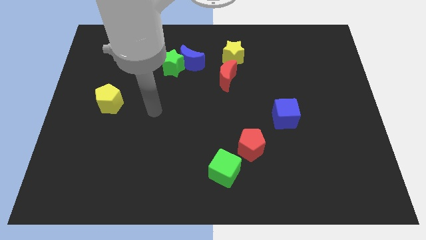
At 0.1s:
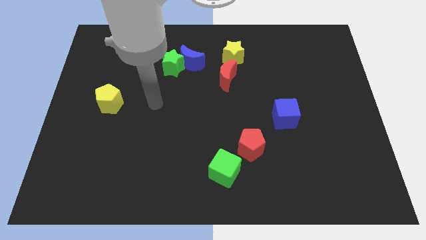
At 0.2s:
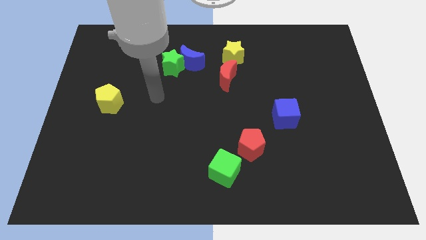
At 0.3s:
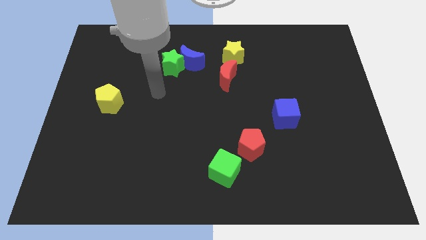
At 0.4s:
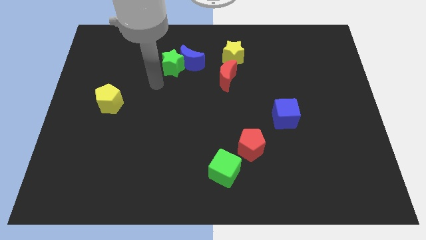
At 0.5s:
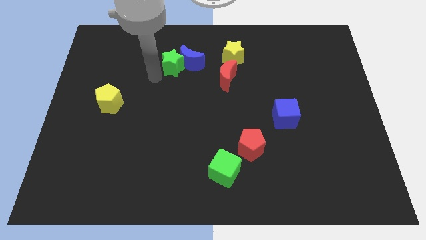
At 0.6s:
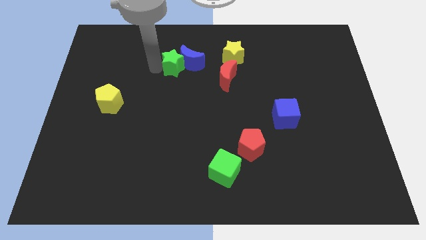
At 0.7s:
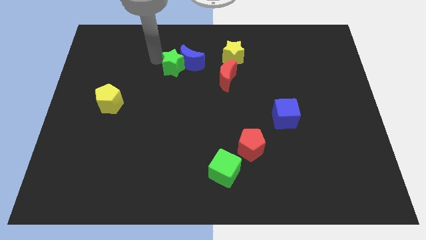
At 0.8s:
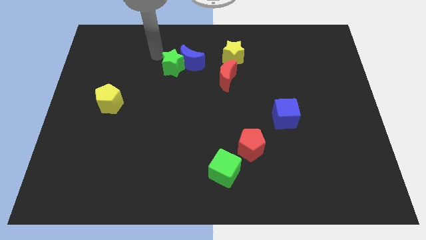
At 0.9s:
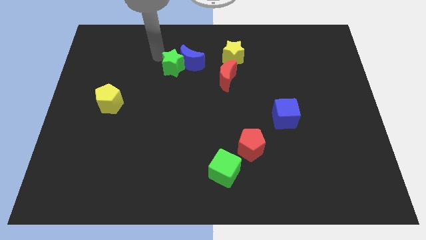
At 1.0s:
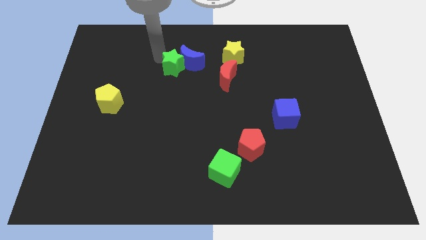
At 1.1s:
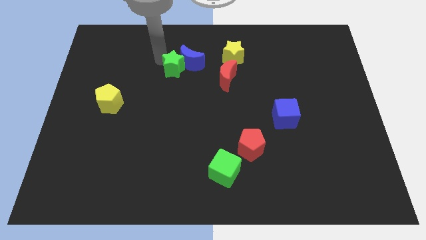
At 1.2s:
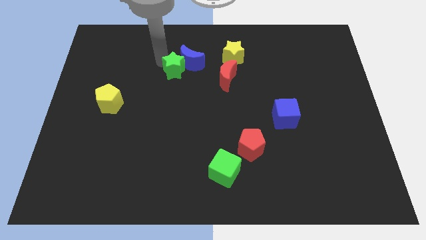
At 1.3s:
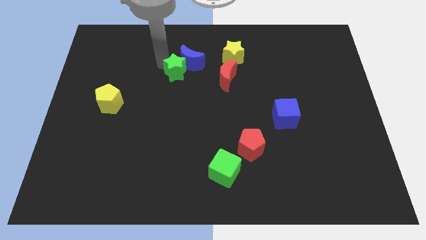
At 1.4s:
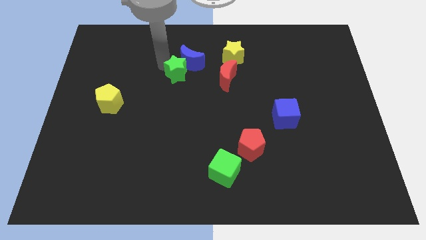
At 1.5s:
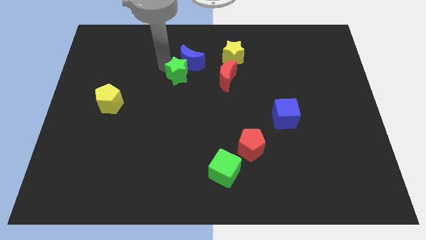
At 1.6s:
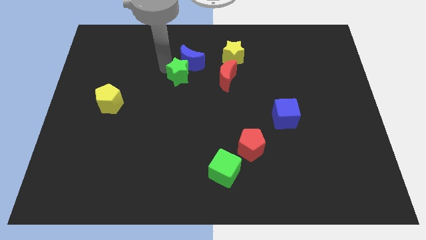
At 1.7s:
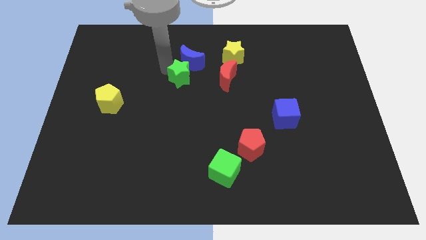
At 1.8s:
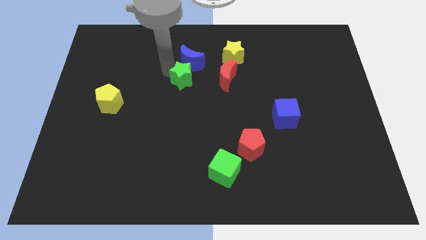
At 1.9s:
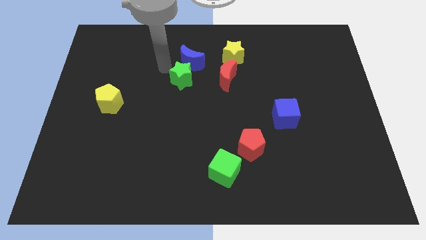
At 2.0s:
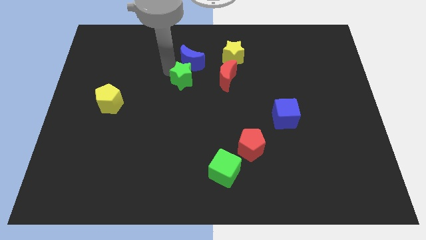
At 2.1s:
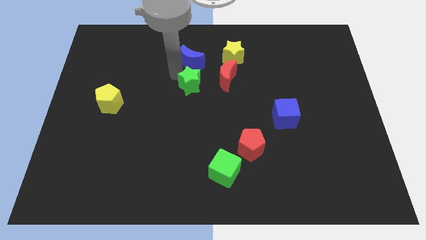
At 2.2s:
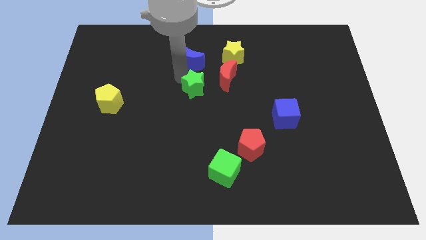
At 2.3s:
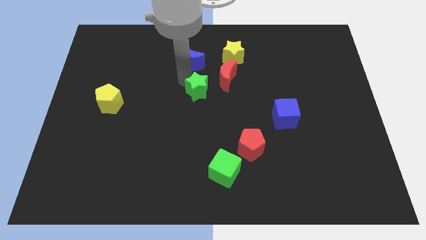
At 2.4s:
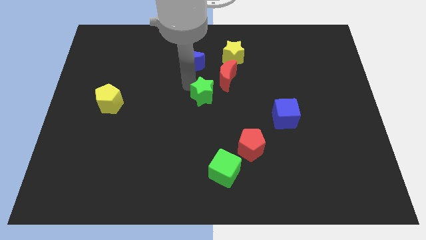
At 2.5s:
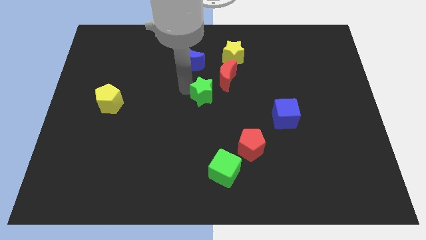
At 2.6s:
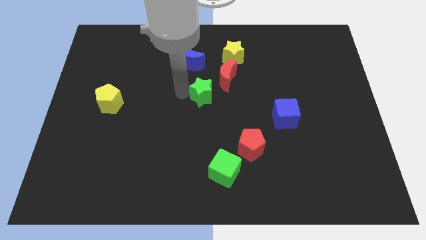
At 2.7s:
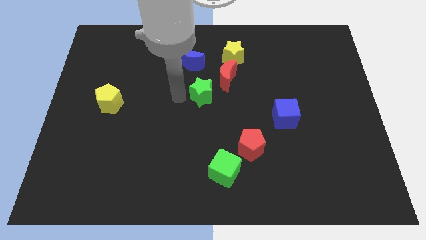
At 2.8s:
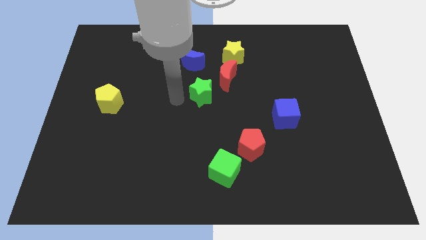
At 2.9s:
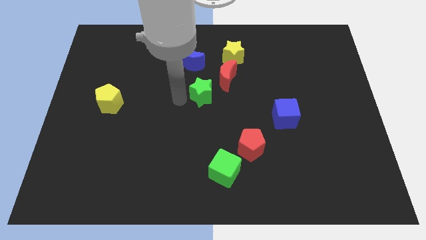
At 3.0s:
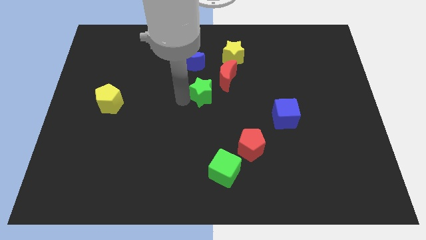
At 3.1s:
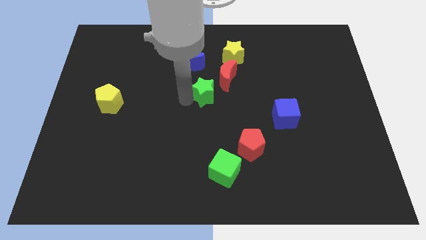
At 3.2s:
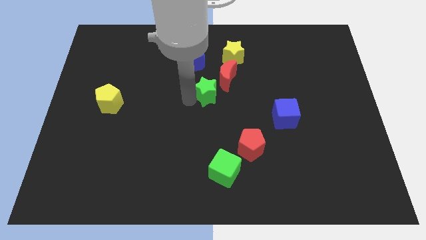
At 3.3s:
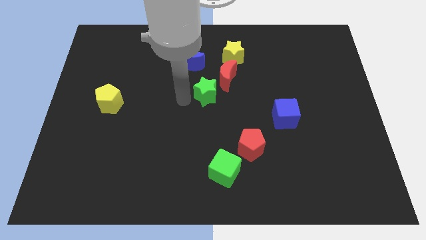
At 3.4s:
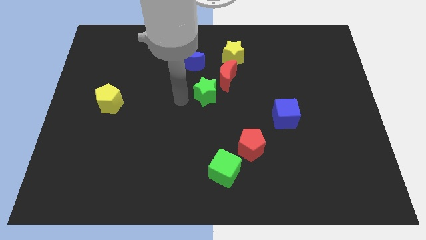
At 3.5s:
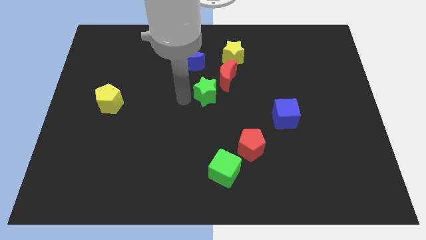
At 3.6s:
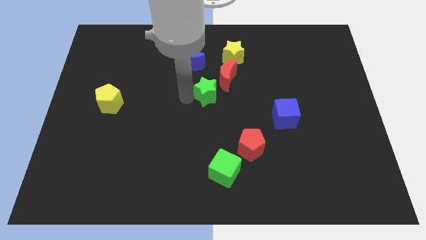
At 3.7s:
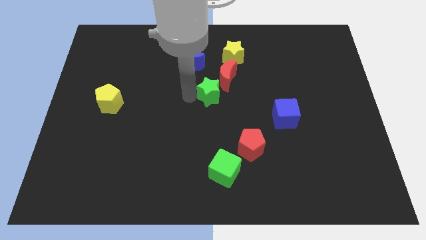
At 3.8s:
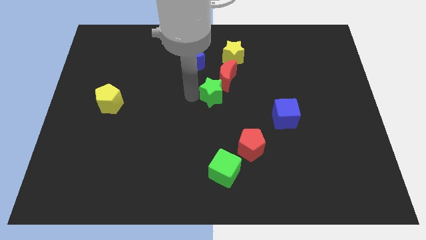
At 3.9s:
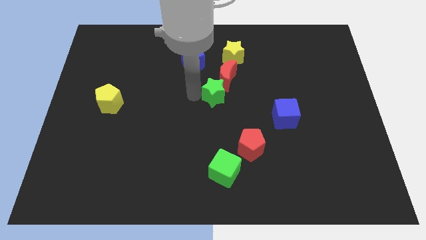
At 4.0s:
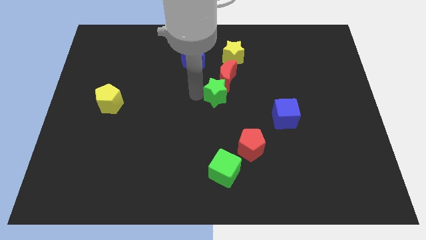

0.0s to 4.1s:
move the green star right slightly

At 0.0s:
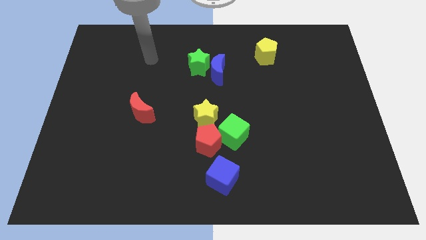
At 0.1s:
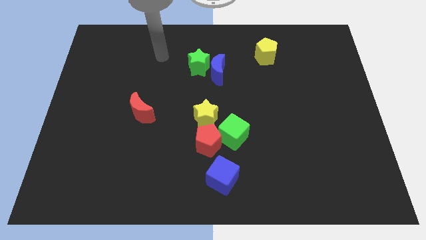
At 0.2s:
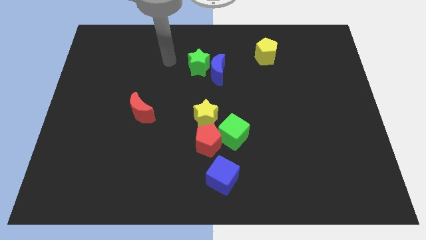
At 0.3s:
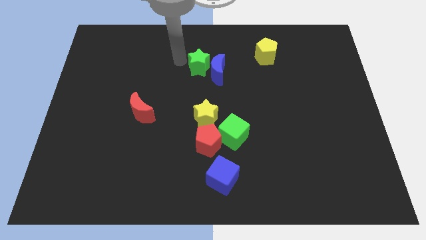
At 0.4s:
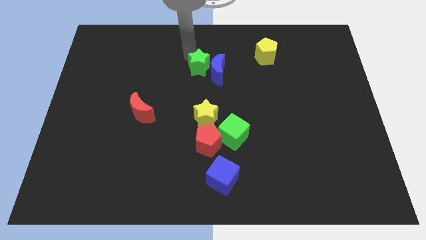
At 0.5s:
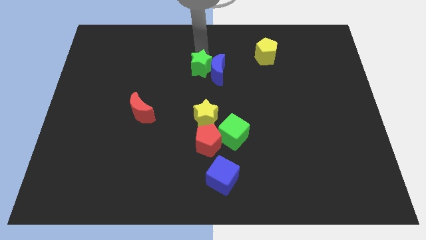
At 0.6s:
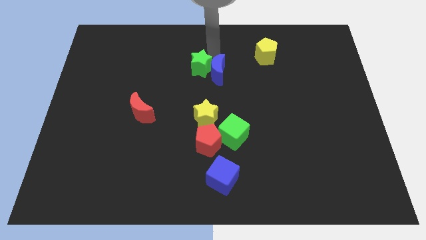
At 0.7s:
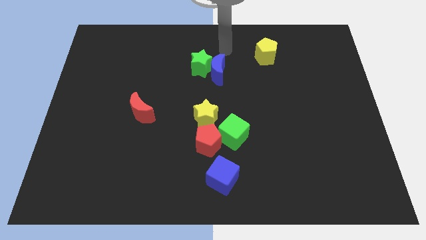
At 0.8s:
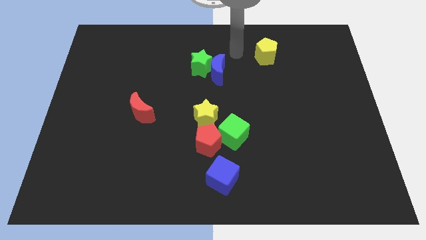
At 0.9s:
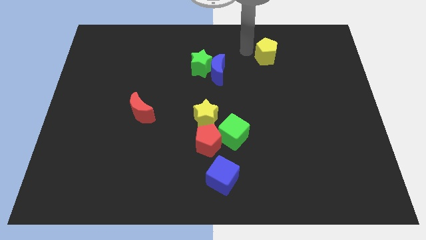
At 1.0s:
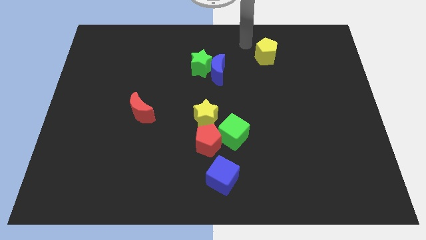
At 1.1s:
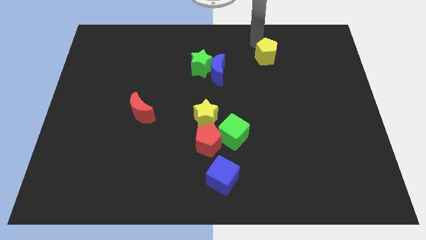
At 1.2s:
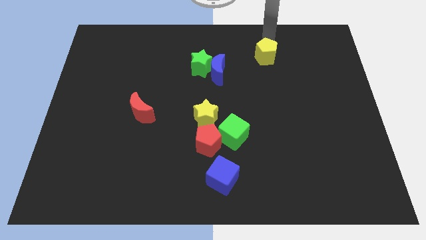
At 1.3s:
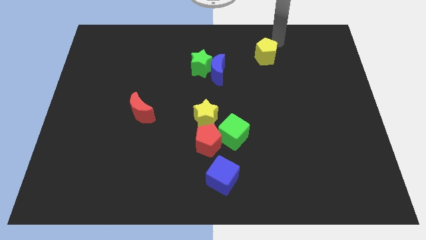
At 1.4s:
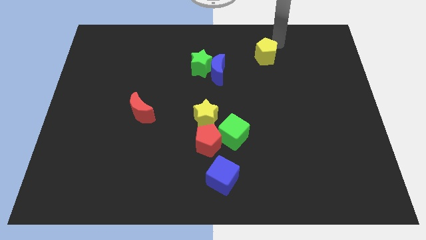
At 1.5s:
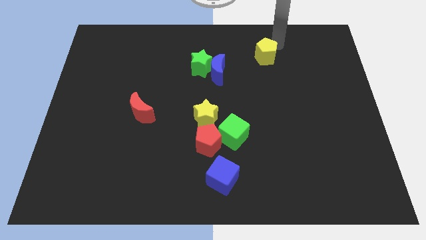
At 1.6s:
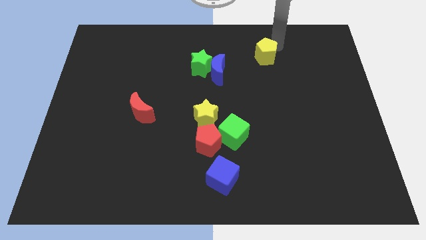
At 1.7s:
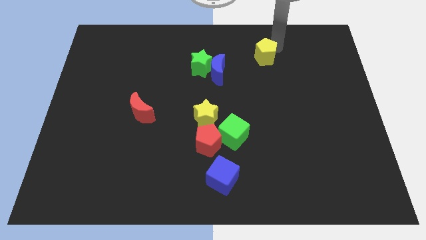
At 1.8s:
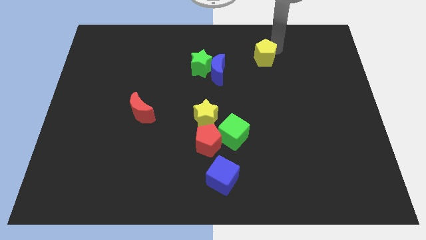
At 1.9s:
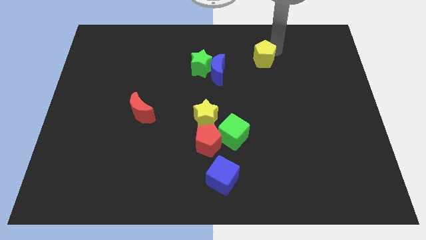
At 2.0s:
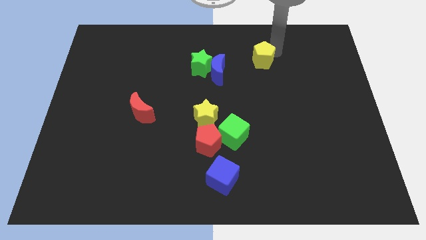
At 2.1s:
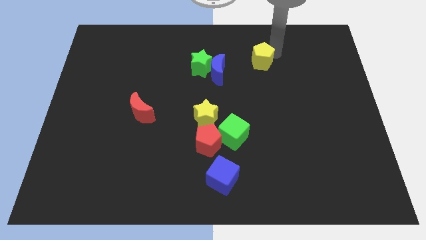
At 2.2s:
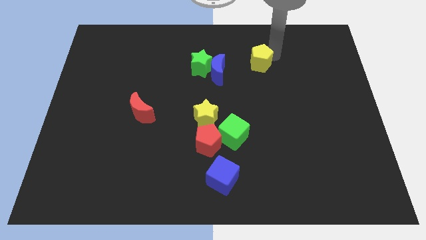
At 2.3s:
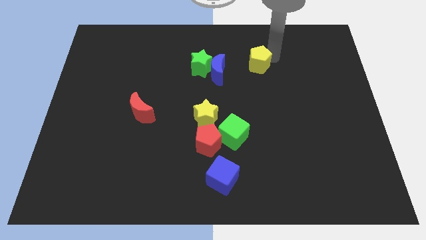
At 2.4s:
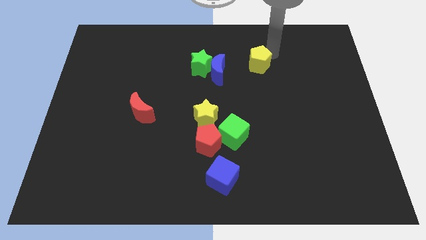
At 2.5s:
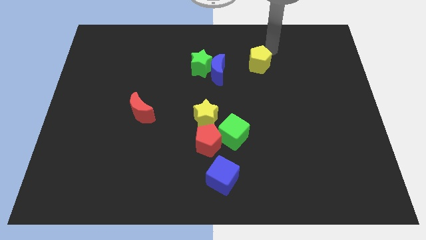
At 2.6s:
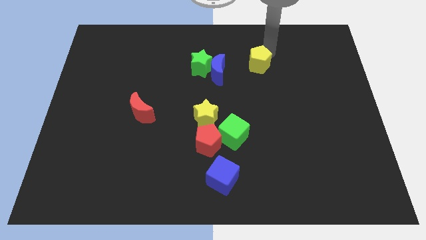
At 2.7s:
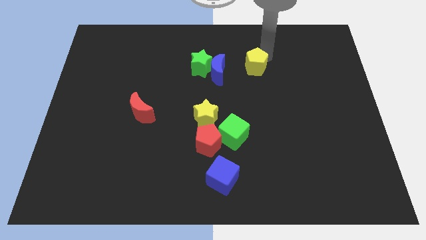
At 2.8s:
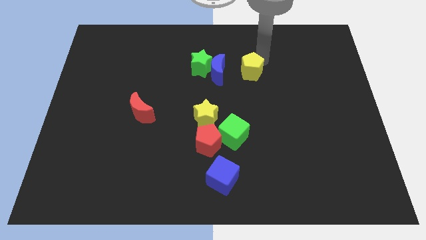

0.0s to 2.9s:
slide the yellow pentagon a little down and left

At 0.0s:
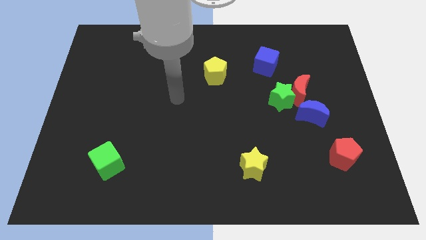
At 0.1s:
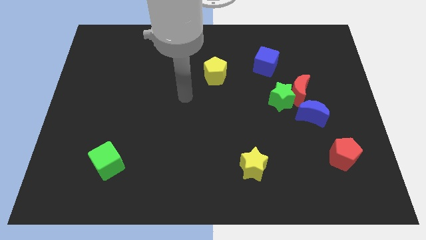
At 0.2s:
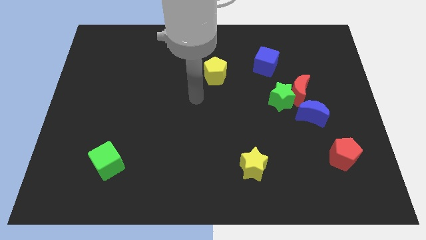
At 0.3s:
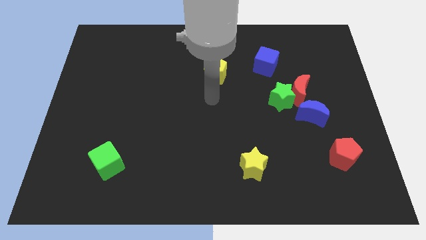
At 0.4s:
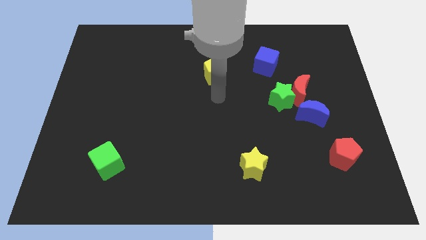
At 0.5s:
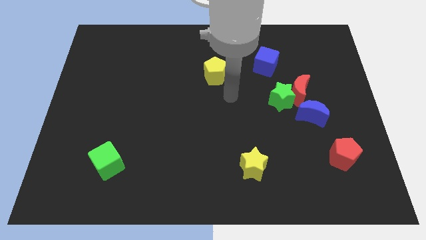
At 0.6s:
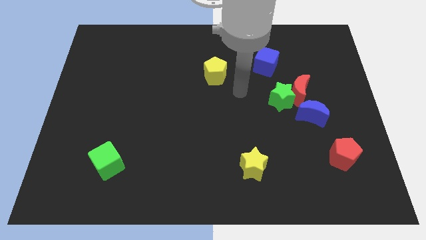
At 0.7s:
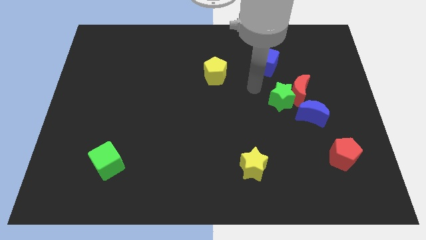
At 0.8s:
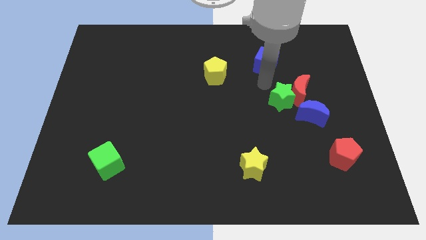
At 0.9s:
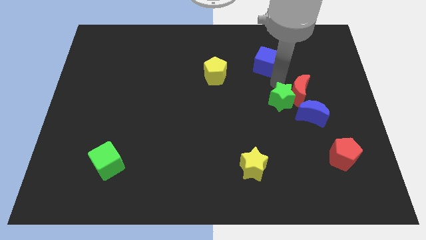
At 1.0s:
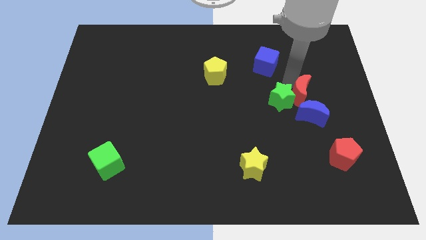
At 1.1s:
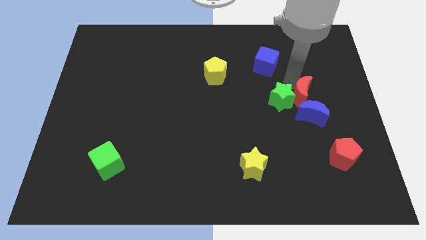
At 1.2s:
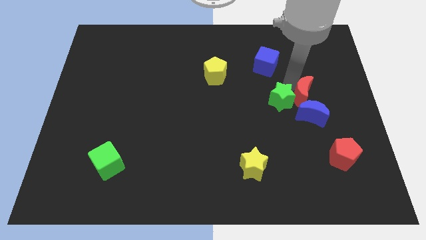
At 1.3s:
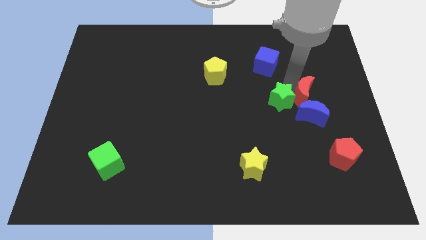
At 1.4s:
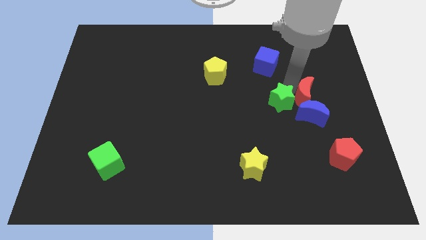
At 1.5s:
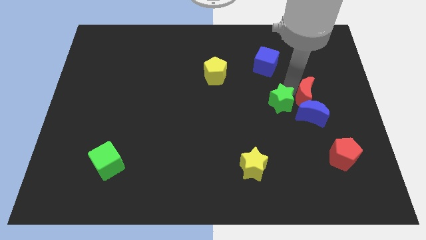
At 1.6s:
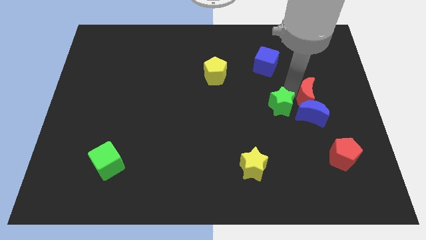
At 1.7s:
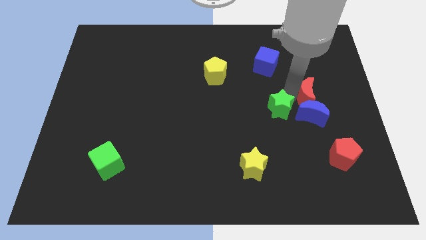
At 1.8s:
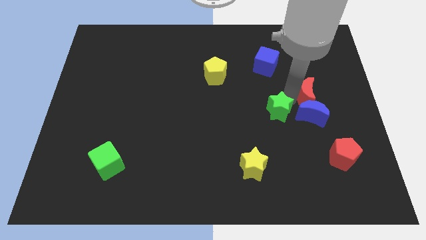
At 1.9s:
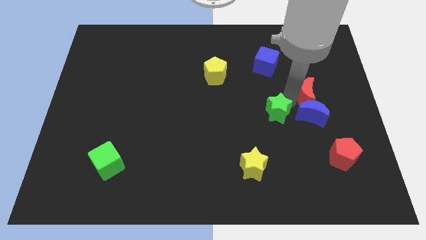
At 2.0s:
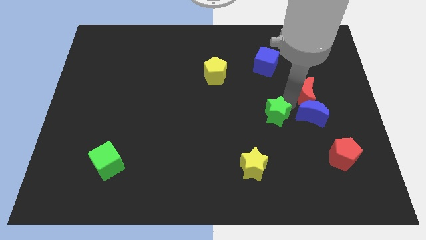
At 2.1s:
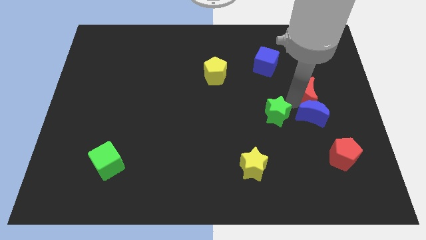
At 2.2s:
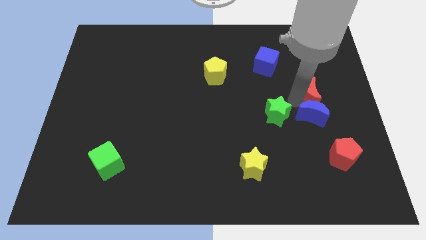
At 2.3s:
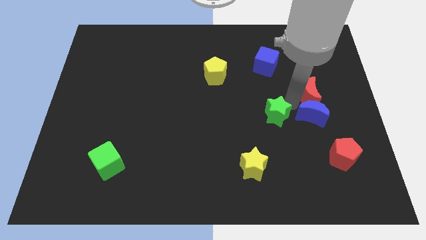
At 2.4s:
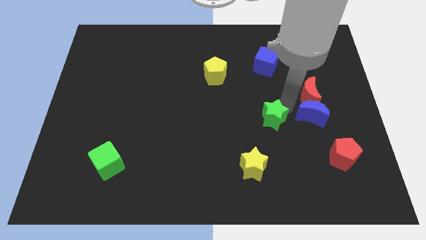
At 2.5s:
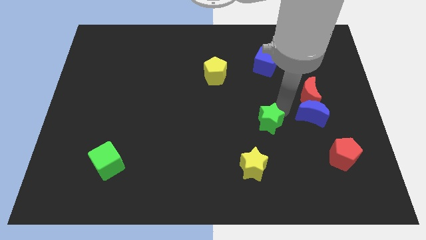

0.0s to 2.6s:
move the green star downwards and then left a little bit
